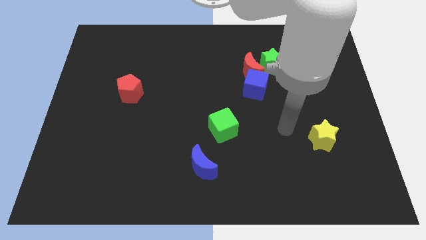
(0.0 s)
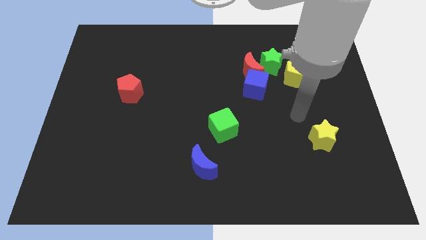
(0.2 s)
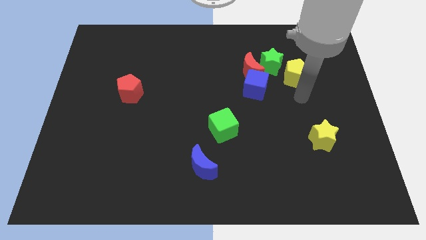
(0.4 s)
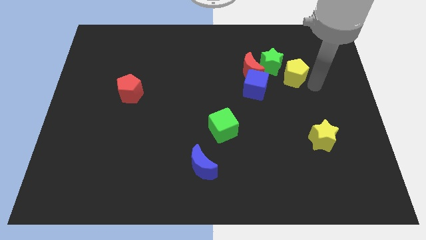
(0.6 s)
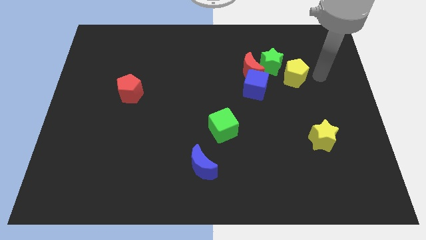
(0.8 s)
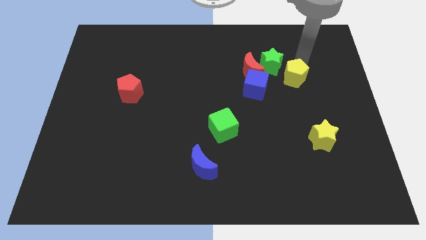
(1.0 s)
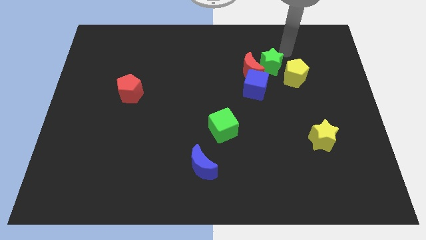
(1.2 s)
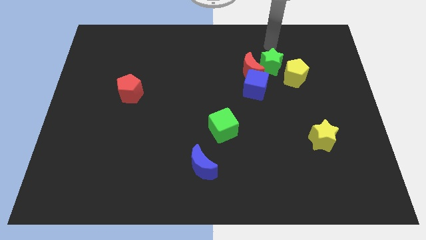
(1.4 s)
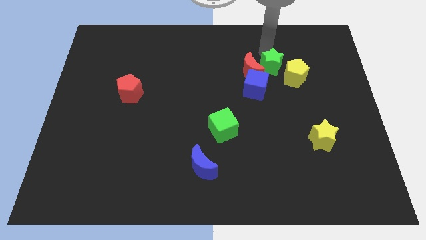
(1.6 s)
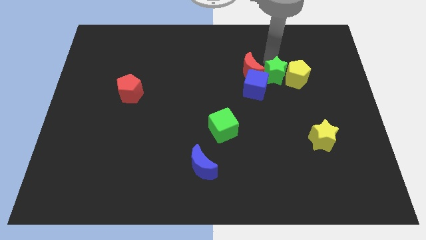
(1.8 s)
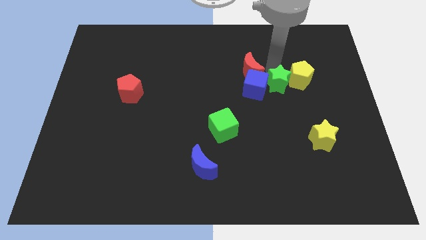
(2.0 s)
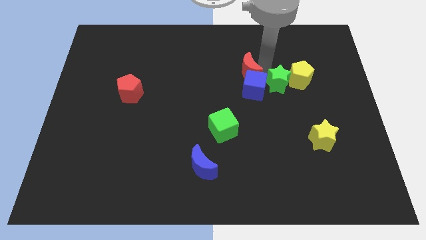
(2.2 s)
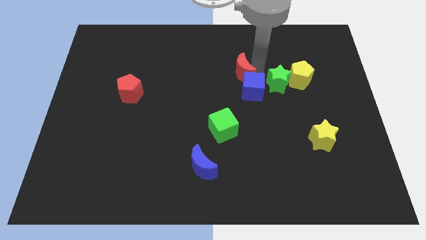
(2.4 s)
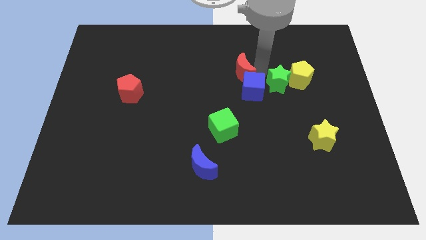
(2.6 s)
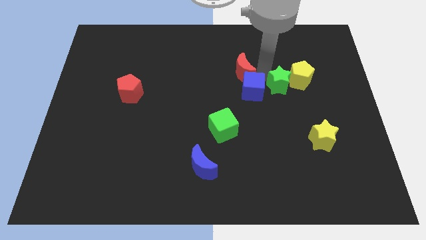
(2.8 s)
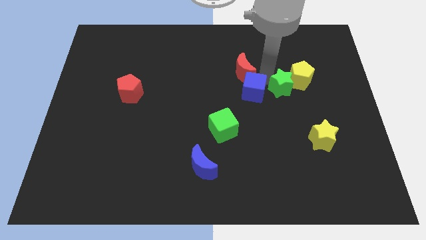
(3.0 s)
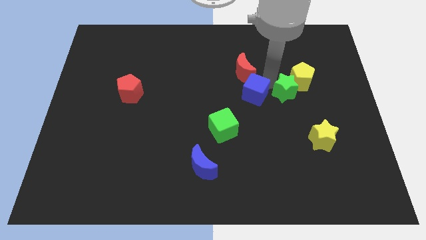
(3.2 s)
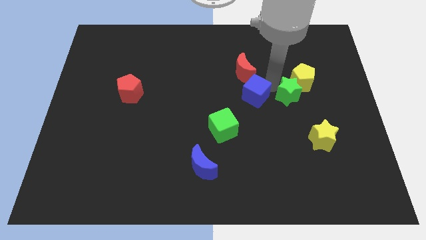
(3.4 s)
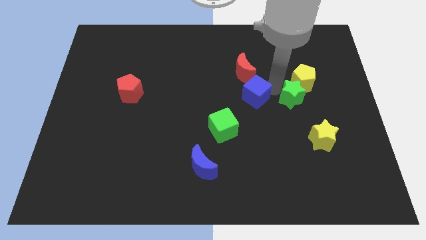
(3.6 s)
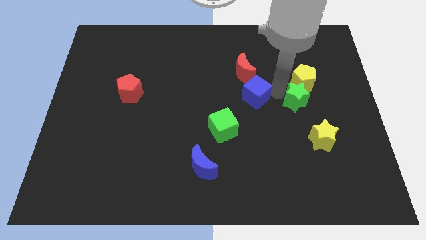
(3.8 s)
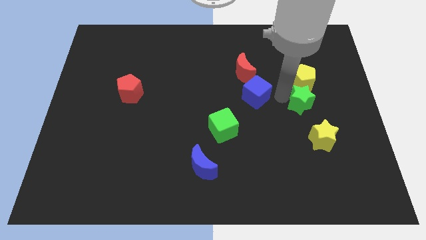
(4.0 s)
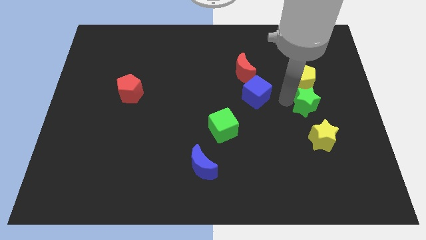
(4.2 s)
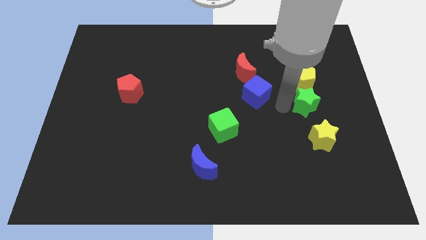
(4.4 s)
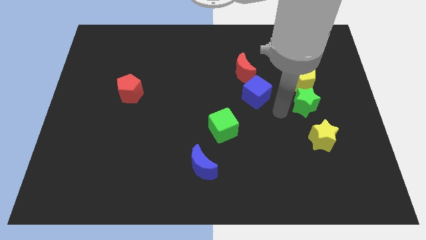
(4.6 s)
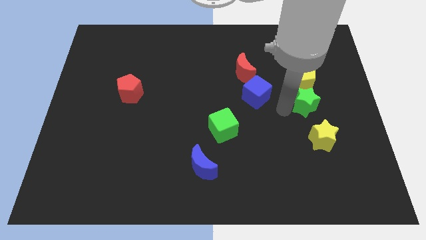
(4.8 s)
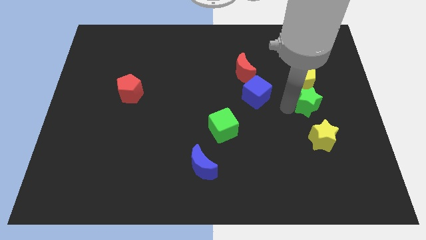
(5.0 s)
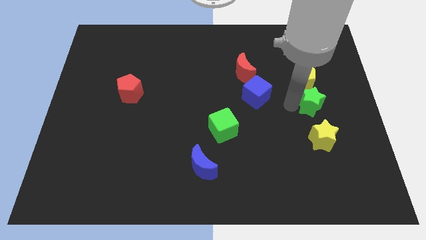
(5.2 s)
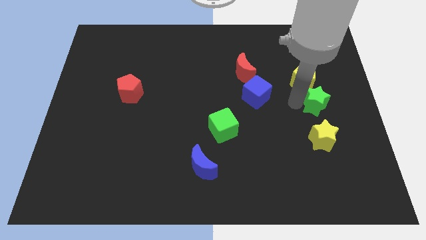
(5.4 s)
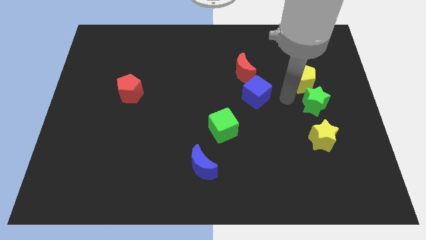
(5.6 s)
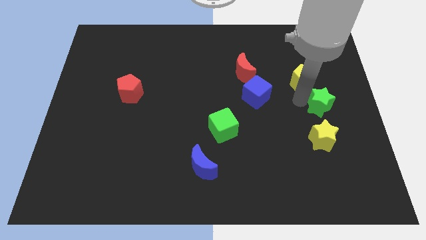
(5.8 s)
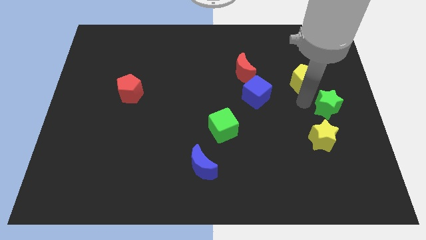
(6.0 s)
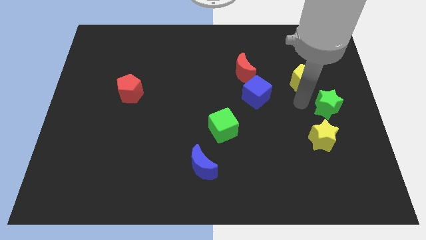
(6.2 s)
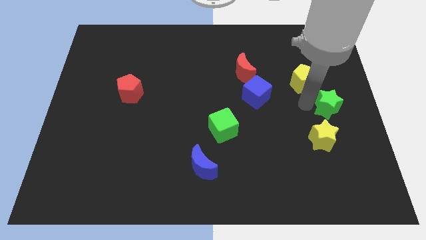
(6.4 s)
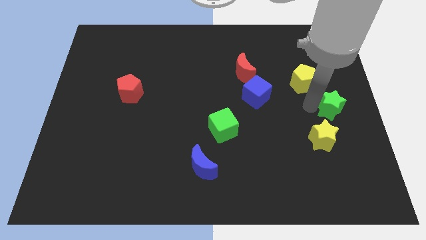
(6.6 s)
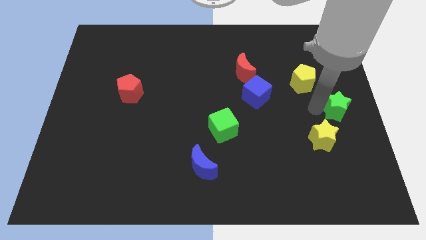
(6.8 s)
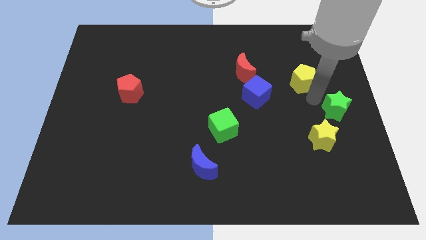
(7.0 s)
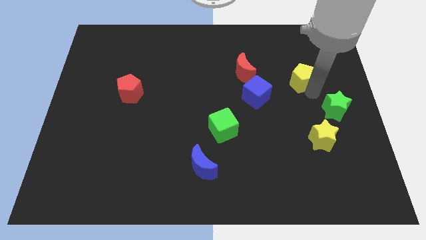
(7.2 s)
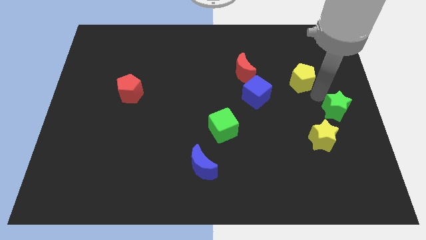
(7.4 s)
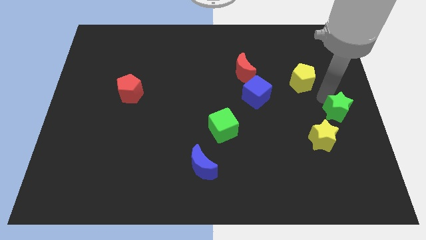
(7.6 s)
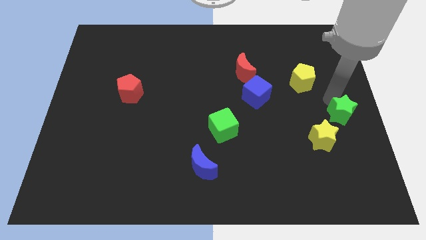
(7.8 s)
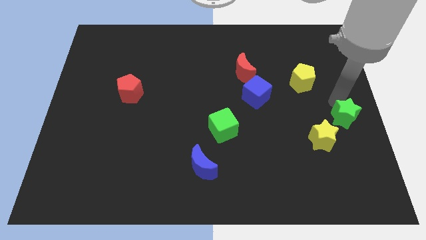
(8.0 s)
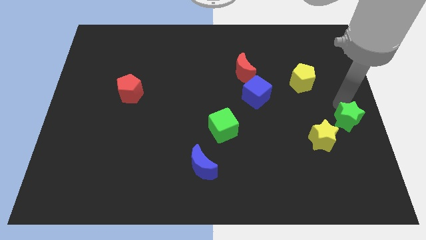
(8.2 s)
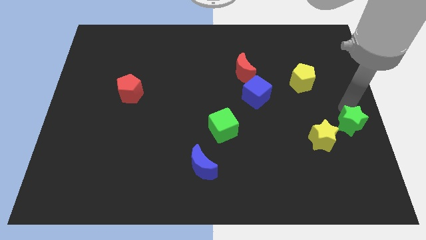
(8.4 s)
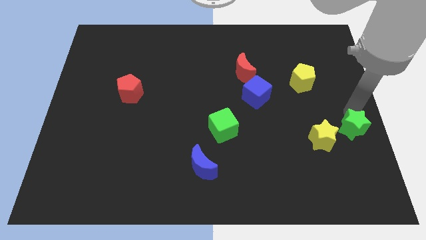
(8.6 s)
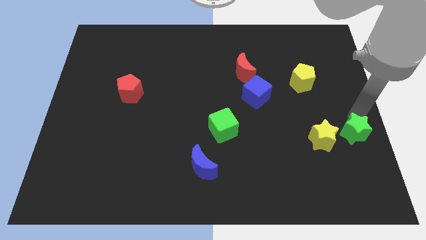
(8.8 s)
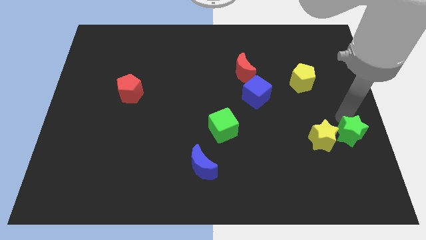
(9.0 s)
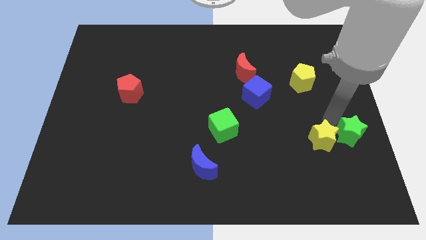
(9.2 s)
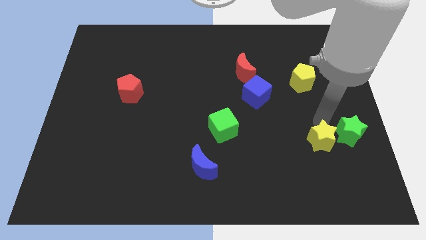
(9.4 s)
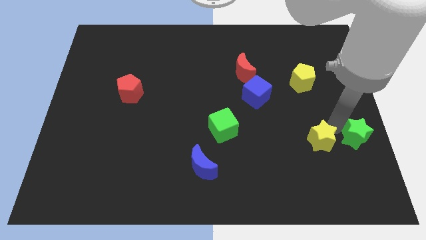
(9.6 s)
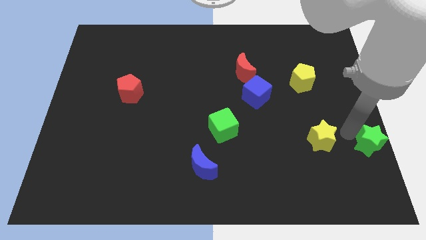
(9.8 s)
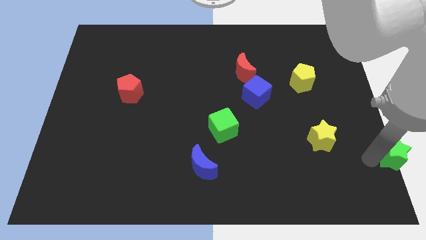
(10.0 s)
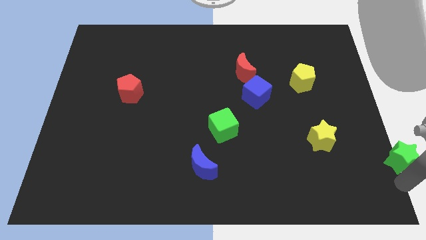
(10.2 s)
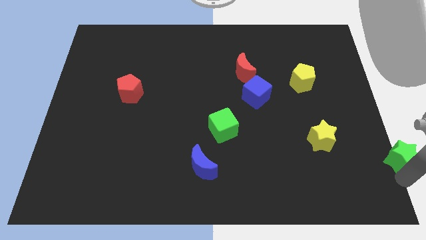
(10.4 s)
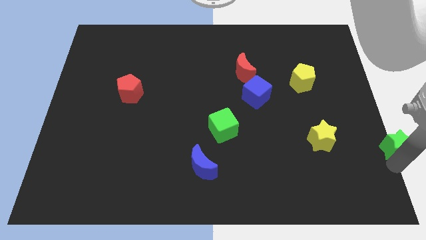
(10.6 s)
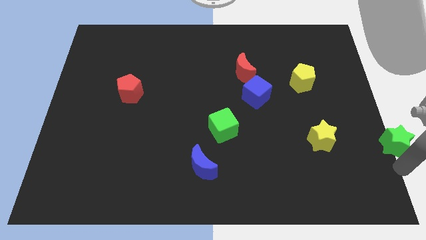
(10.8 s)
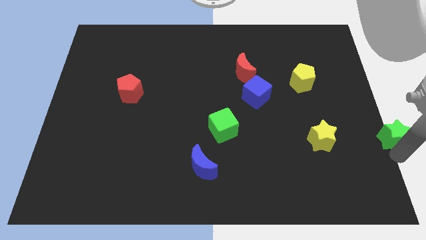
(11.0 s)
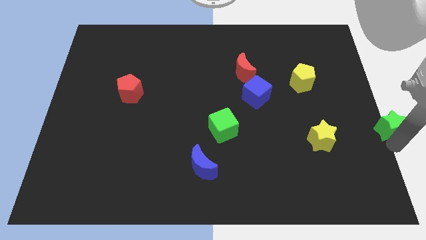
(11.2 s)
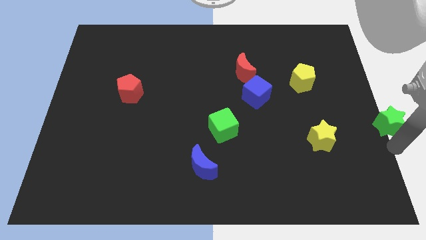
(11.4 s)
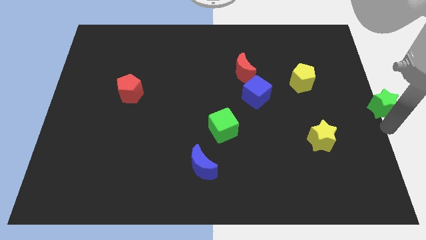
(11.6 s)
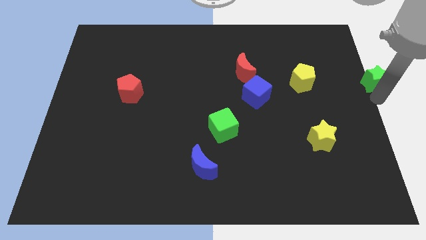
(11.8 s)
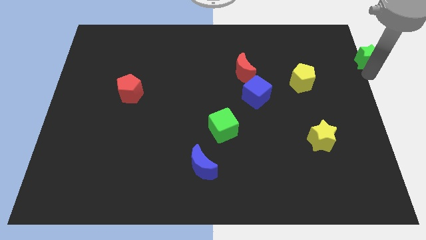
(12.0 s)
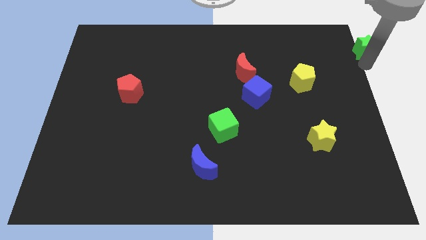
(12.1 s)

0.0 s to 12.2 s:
put the green star to the top right
